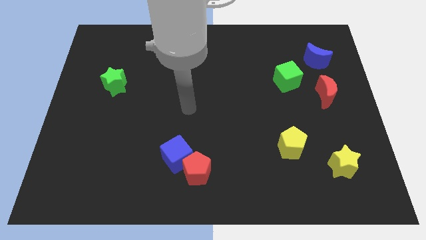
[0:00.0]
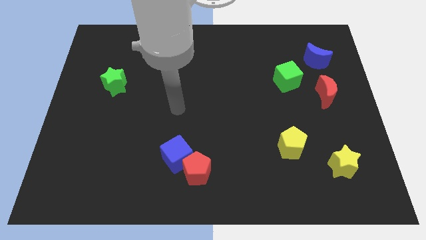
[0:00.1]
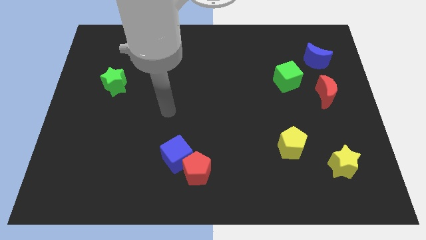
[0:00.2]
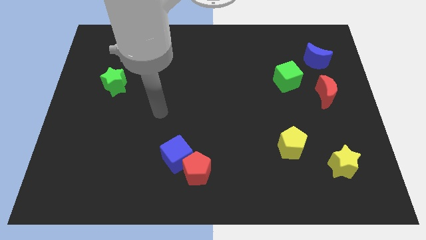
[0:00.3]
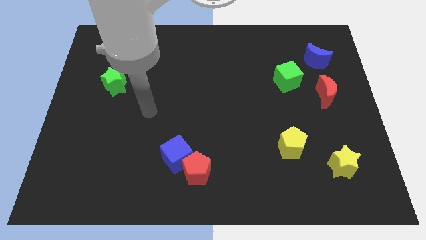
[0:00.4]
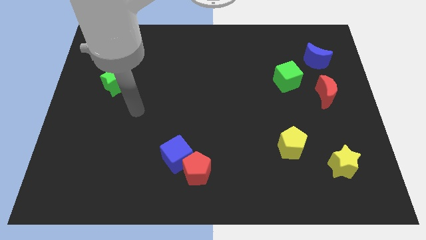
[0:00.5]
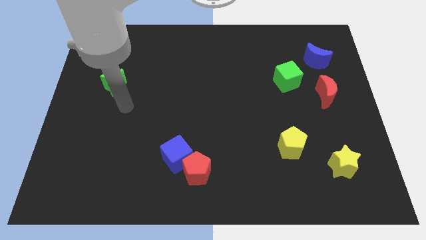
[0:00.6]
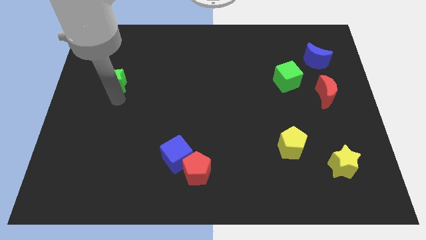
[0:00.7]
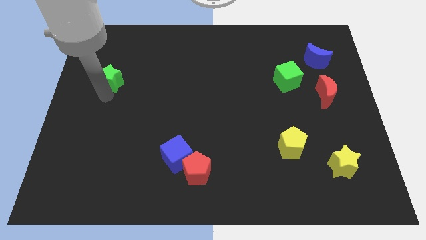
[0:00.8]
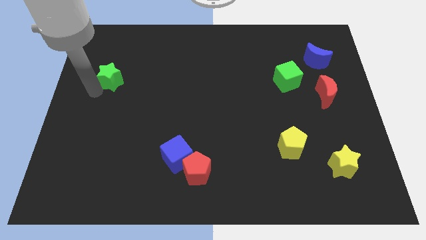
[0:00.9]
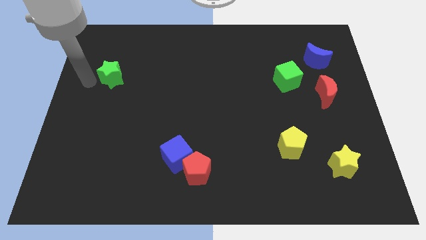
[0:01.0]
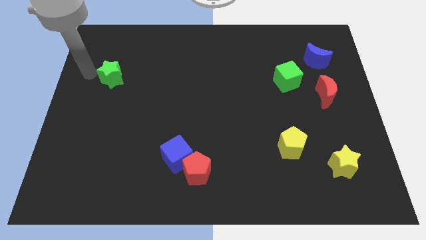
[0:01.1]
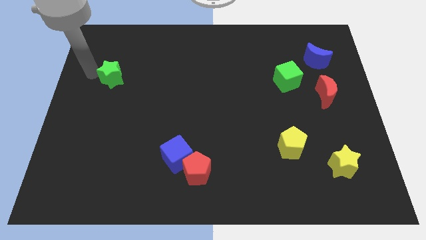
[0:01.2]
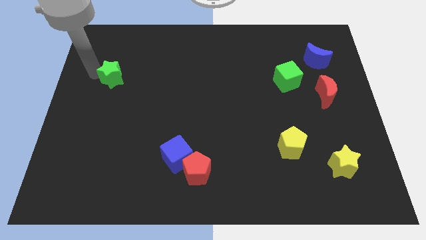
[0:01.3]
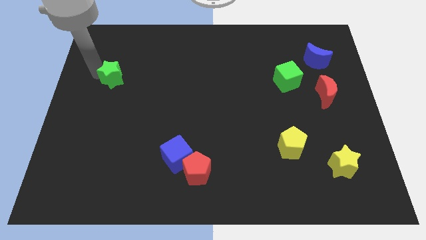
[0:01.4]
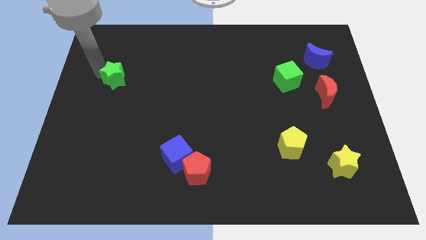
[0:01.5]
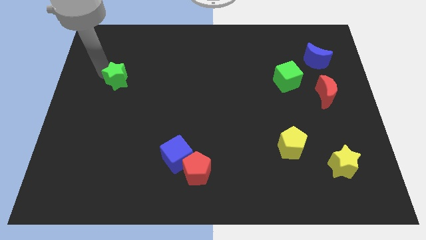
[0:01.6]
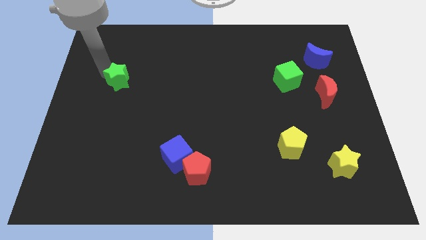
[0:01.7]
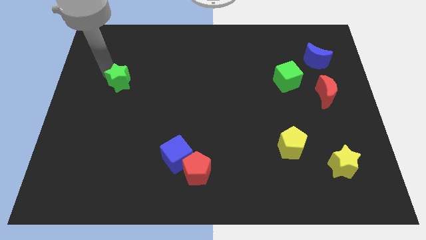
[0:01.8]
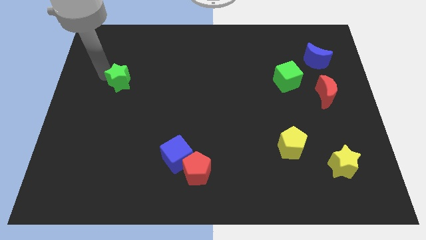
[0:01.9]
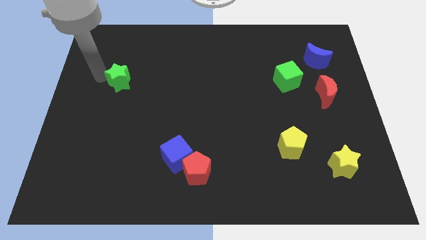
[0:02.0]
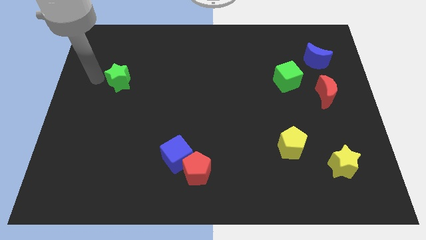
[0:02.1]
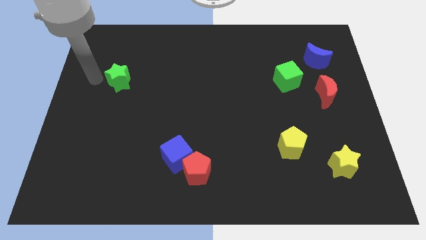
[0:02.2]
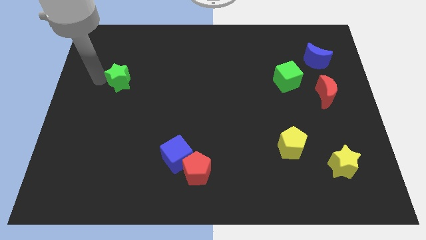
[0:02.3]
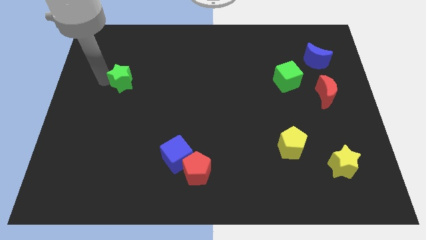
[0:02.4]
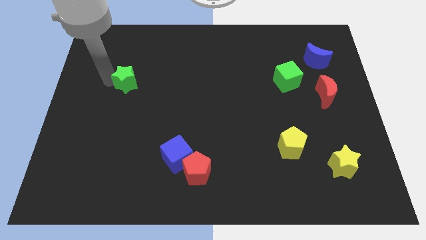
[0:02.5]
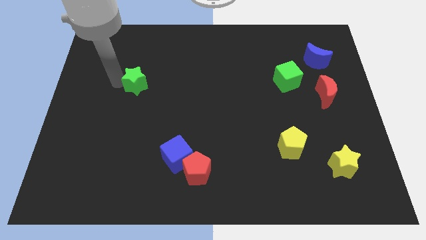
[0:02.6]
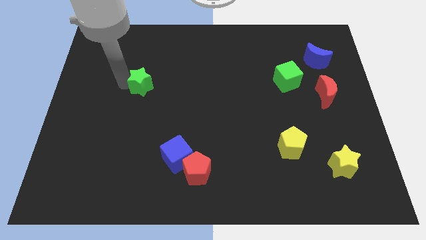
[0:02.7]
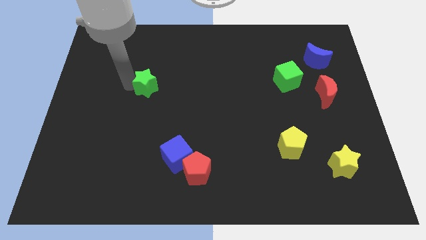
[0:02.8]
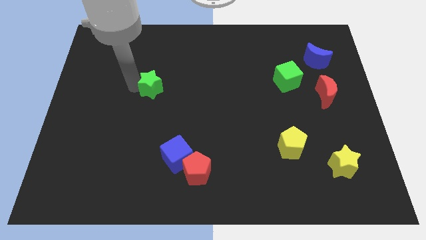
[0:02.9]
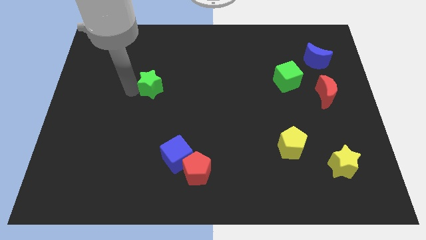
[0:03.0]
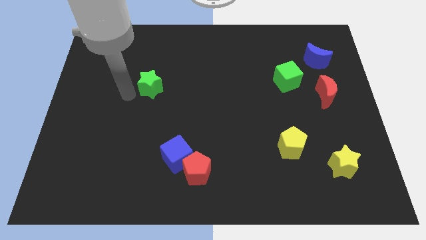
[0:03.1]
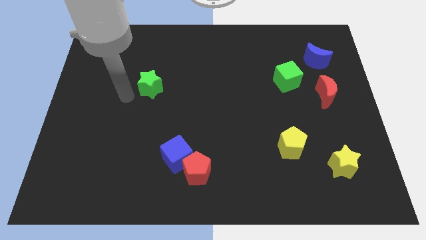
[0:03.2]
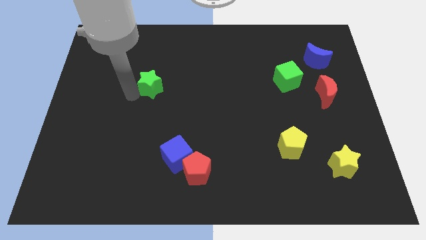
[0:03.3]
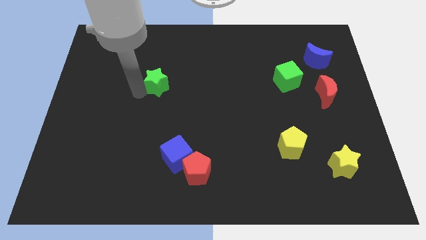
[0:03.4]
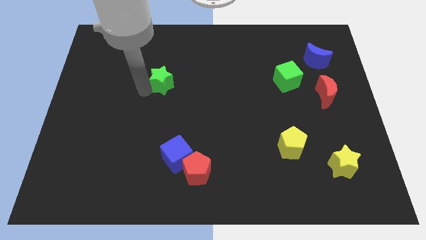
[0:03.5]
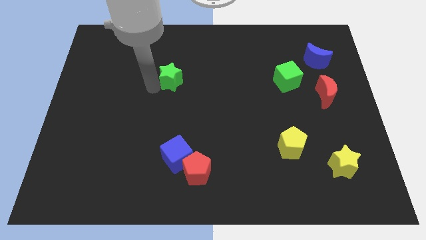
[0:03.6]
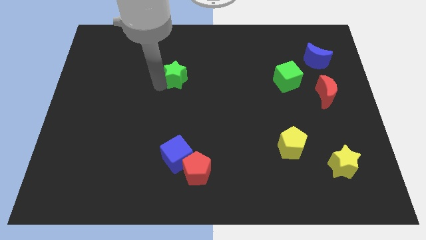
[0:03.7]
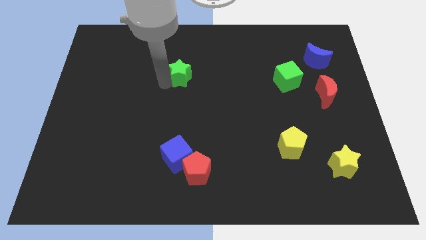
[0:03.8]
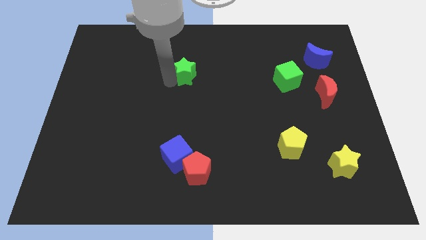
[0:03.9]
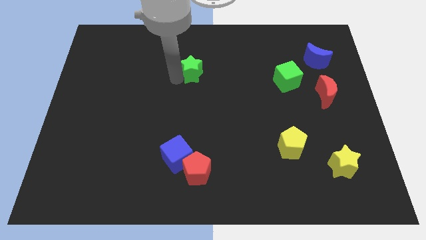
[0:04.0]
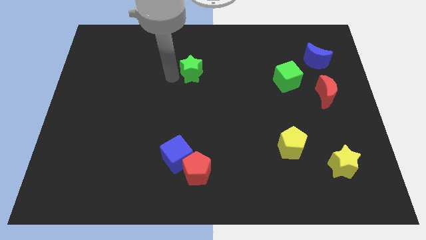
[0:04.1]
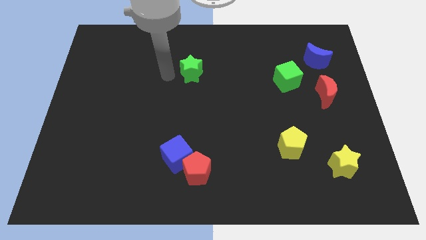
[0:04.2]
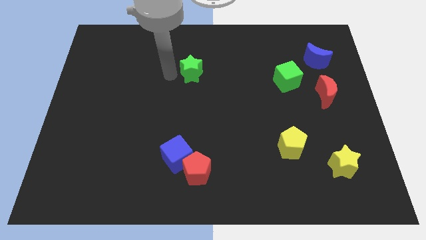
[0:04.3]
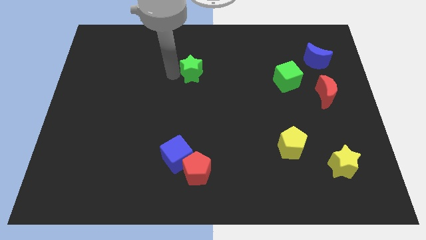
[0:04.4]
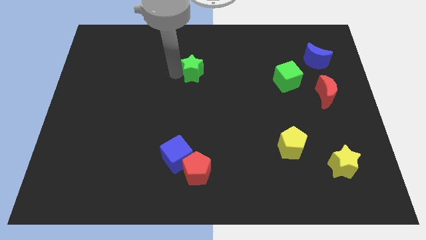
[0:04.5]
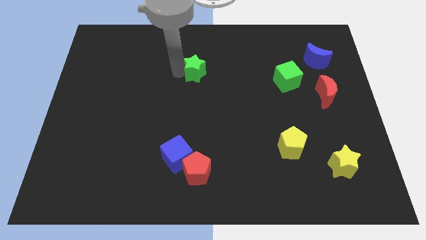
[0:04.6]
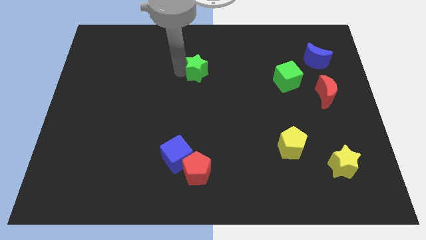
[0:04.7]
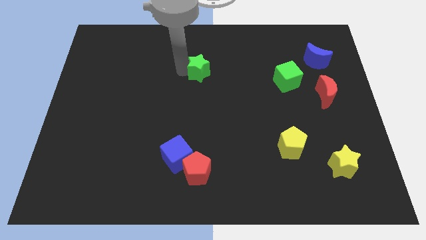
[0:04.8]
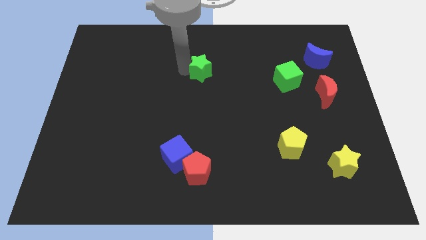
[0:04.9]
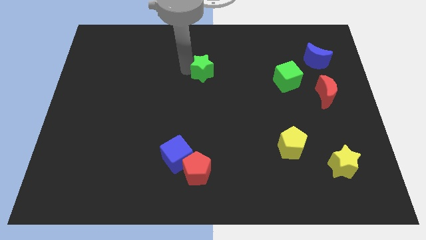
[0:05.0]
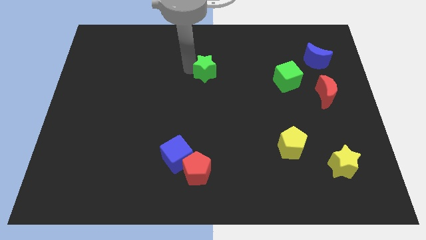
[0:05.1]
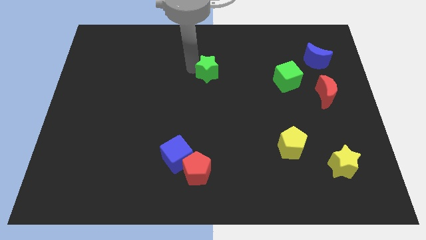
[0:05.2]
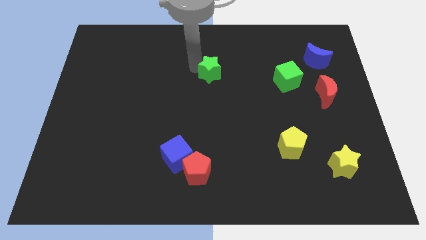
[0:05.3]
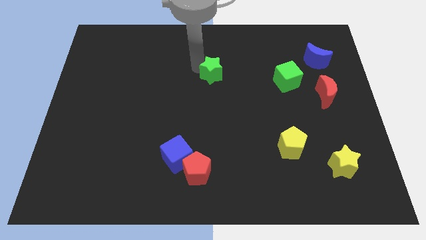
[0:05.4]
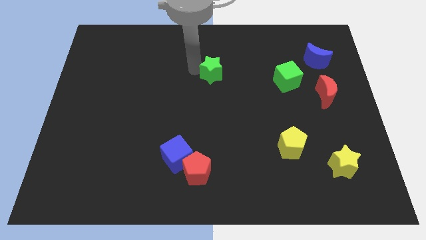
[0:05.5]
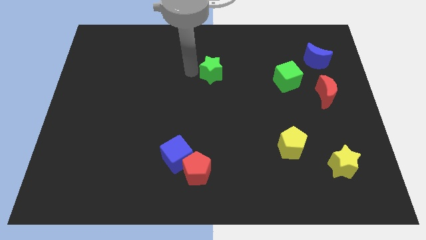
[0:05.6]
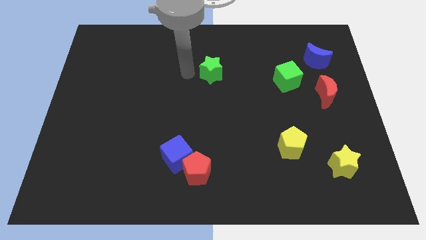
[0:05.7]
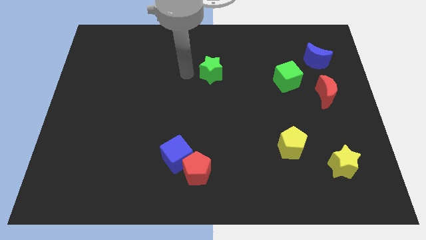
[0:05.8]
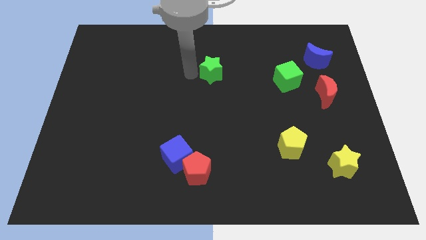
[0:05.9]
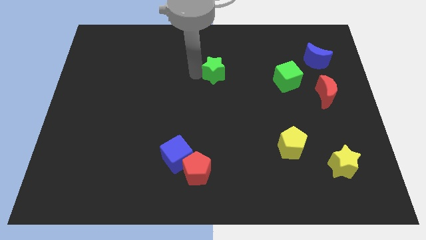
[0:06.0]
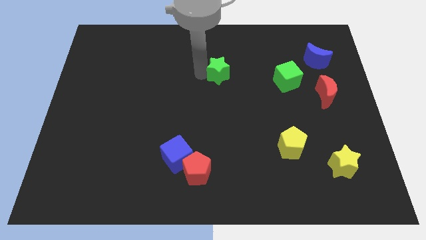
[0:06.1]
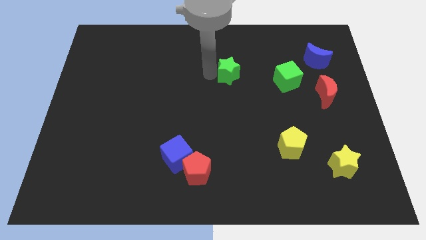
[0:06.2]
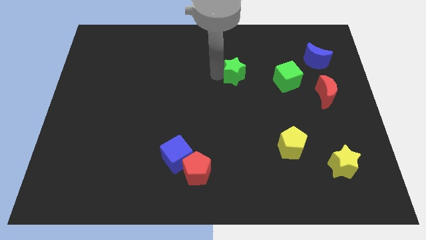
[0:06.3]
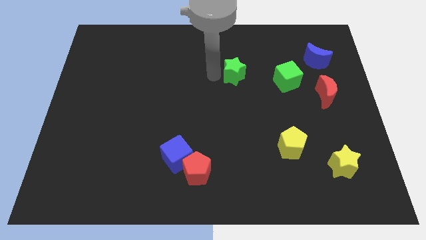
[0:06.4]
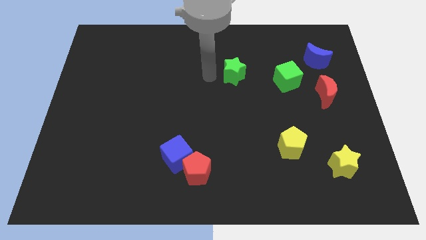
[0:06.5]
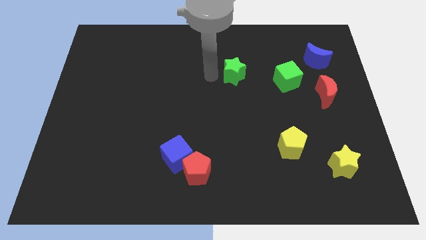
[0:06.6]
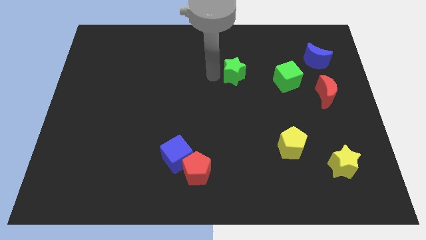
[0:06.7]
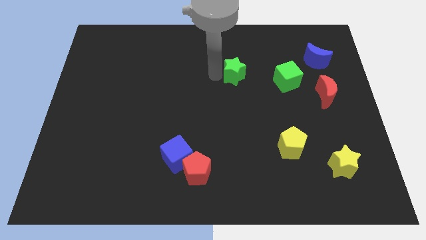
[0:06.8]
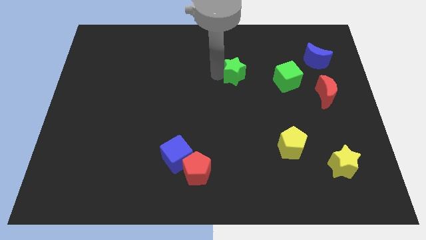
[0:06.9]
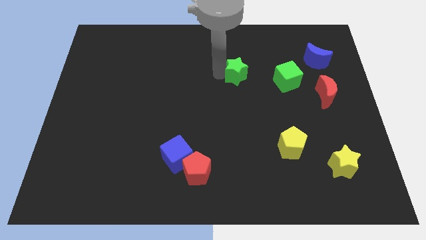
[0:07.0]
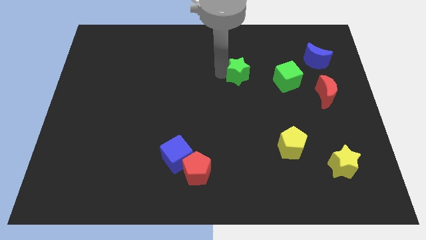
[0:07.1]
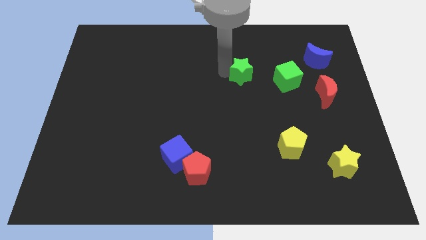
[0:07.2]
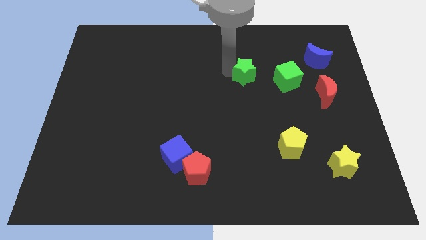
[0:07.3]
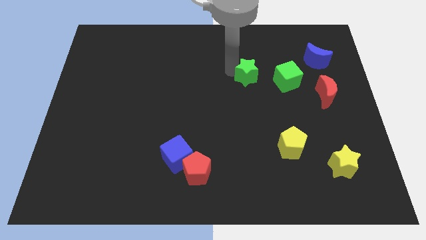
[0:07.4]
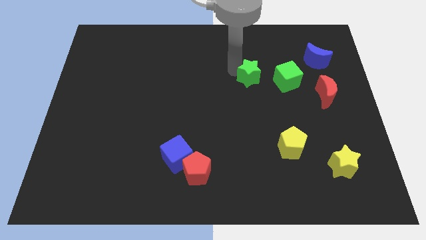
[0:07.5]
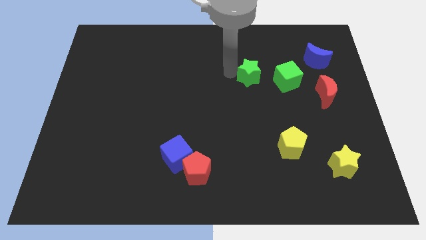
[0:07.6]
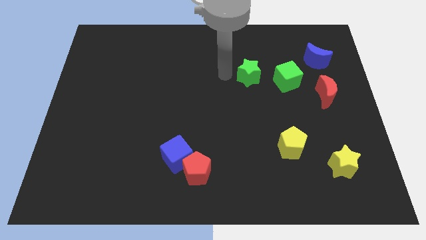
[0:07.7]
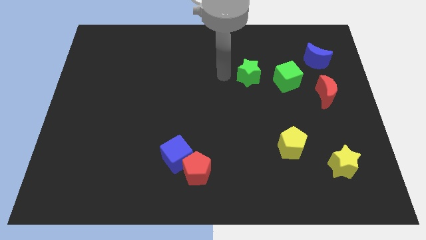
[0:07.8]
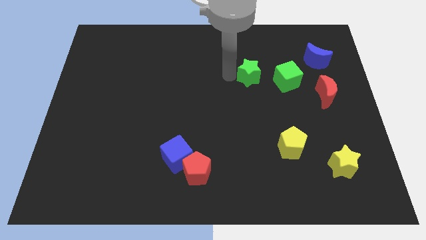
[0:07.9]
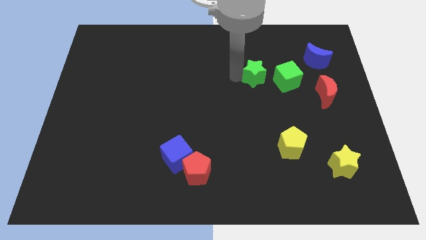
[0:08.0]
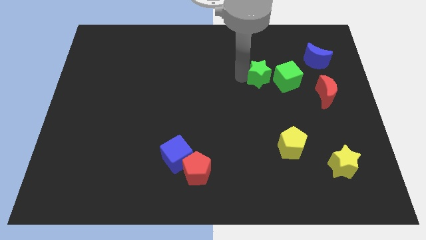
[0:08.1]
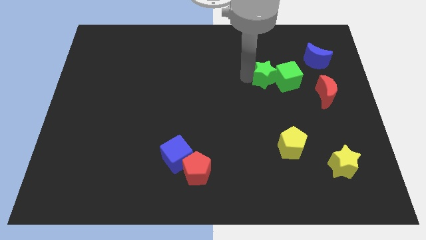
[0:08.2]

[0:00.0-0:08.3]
push the green star next to the green cube
